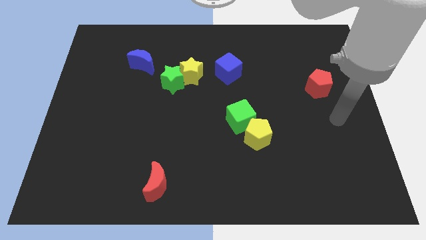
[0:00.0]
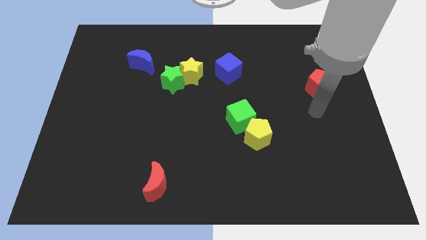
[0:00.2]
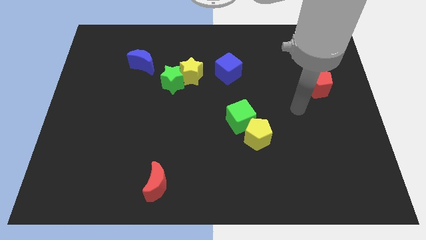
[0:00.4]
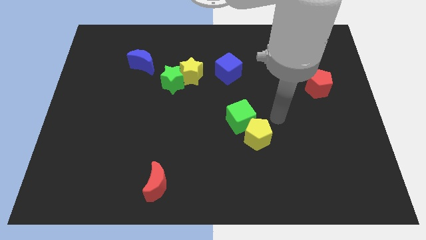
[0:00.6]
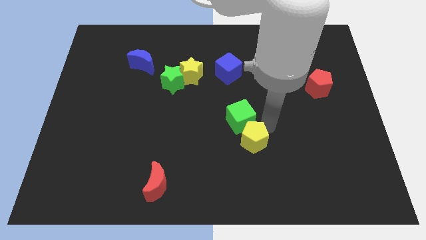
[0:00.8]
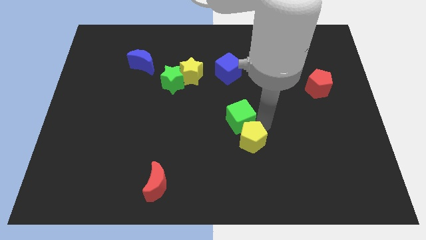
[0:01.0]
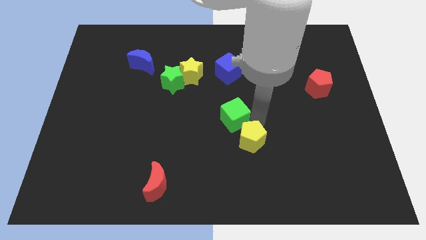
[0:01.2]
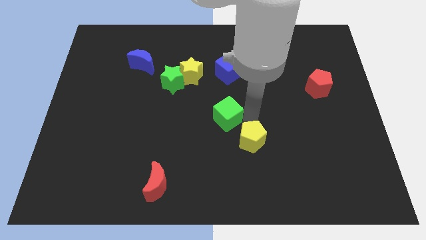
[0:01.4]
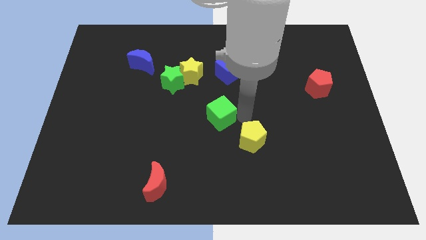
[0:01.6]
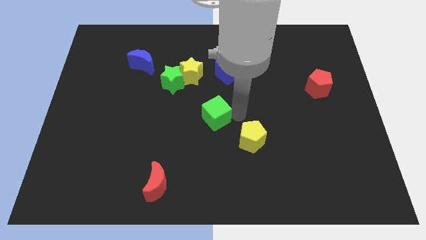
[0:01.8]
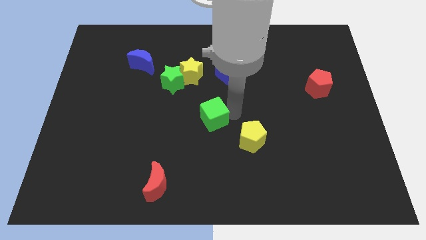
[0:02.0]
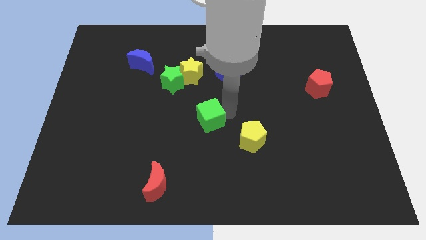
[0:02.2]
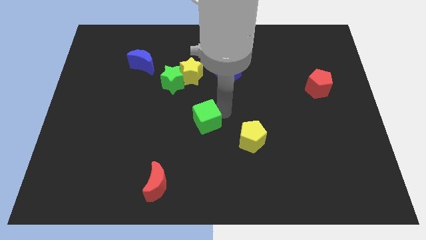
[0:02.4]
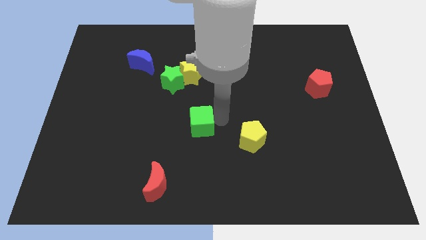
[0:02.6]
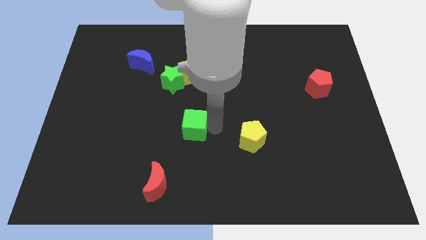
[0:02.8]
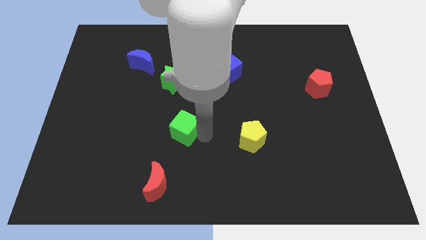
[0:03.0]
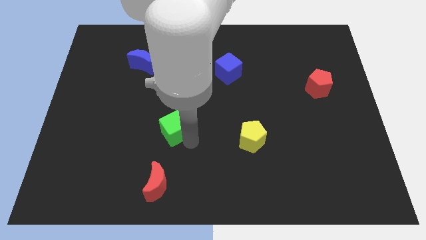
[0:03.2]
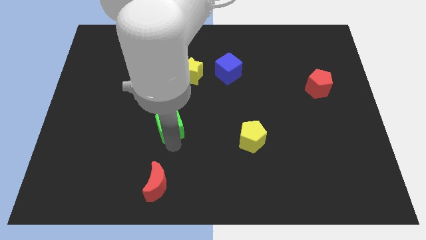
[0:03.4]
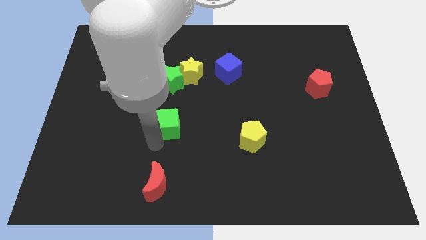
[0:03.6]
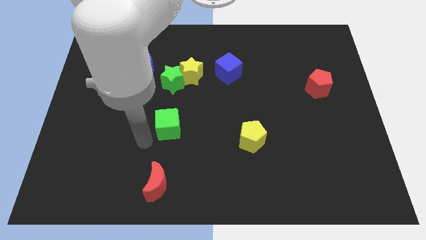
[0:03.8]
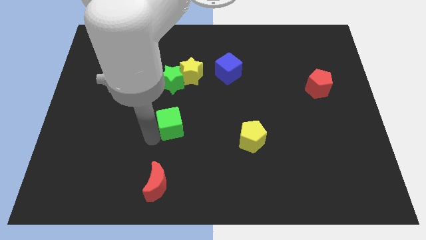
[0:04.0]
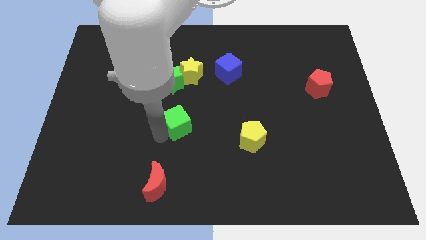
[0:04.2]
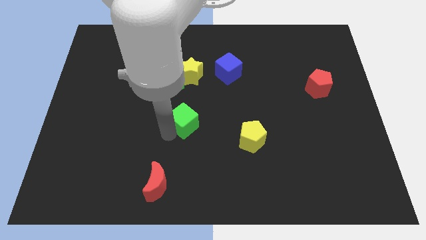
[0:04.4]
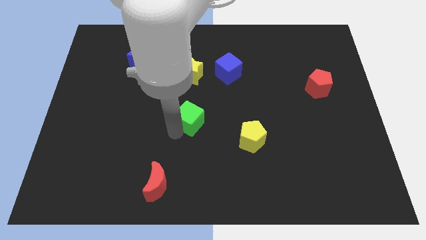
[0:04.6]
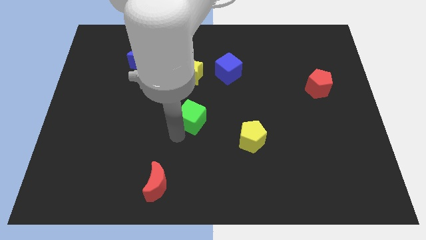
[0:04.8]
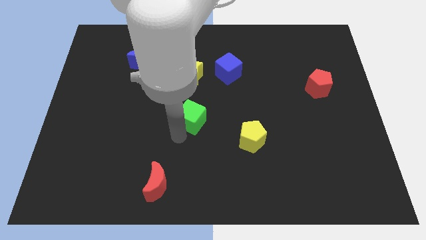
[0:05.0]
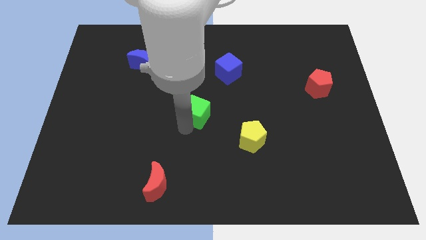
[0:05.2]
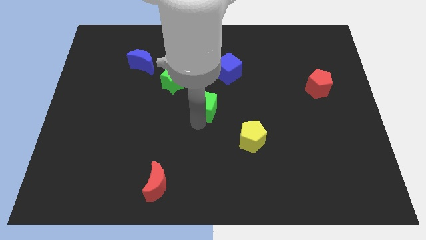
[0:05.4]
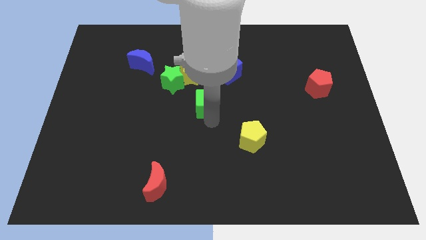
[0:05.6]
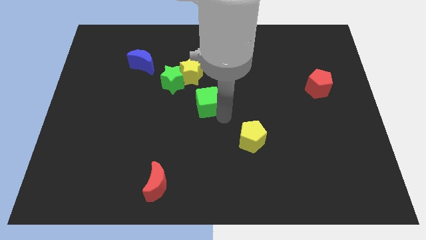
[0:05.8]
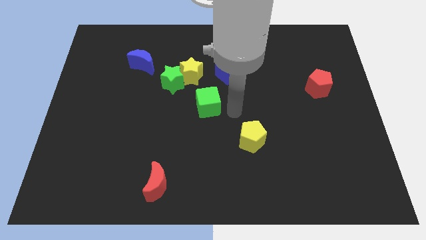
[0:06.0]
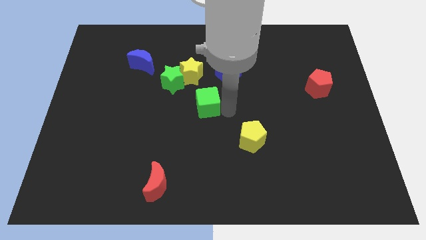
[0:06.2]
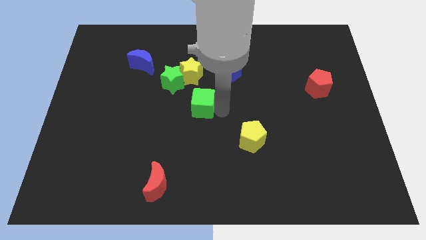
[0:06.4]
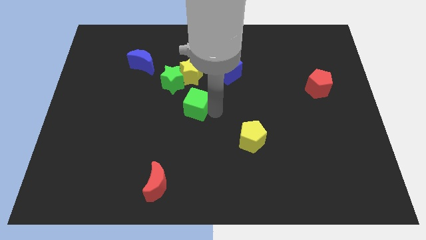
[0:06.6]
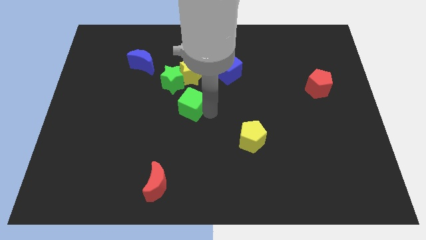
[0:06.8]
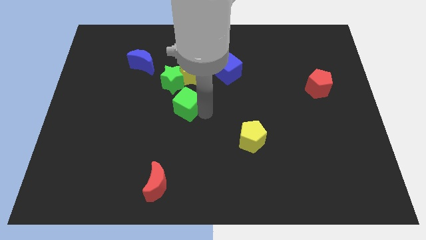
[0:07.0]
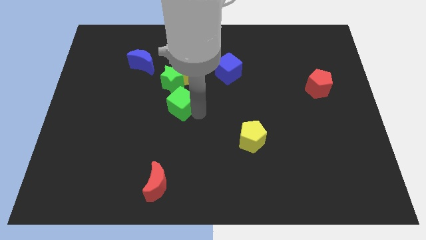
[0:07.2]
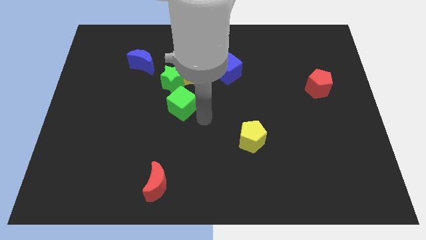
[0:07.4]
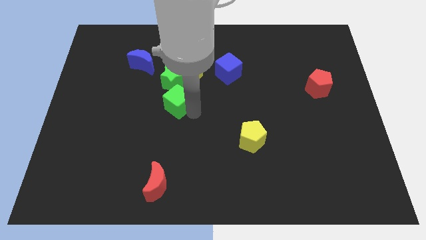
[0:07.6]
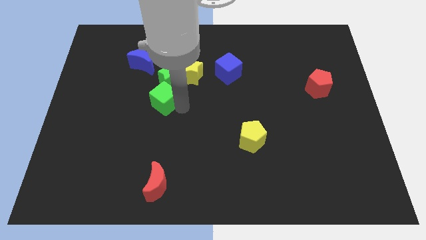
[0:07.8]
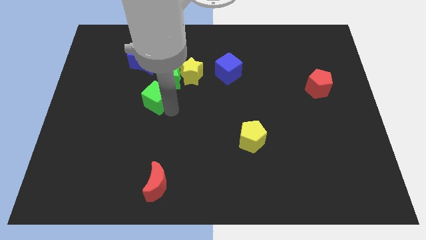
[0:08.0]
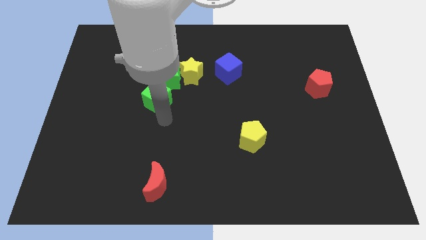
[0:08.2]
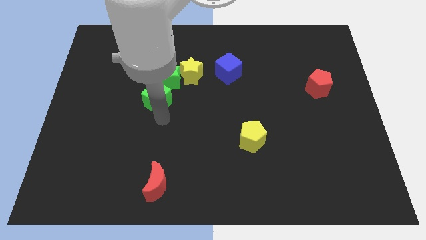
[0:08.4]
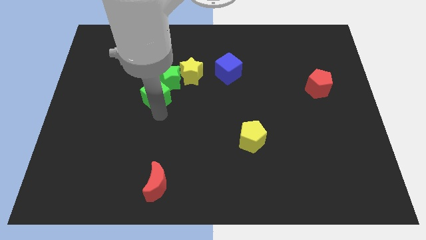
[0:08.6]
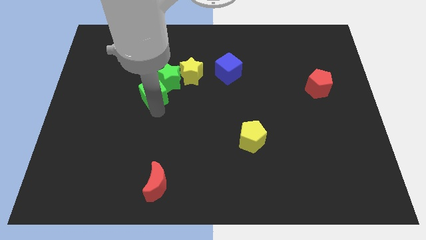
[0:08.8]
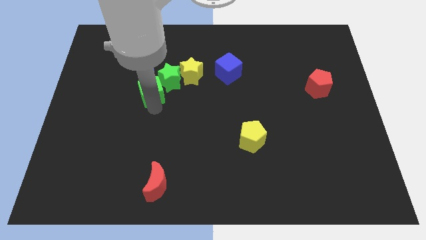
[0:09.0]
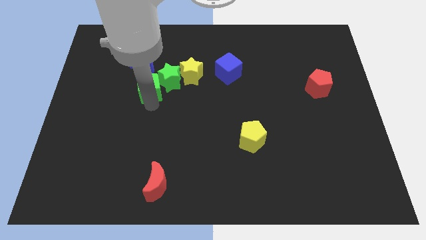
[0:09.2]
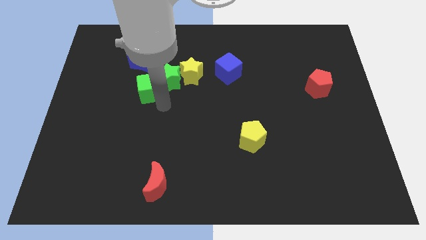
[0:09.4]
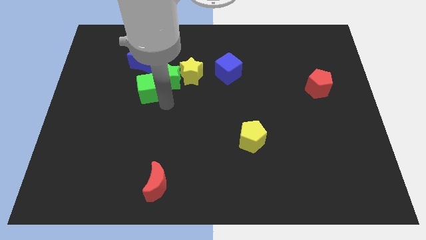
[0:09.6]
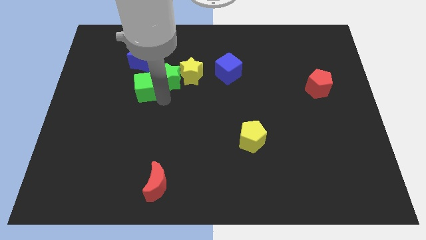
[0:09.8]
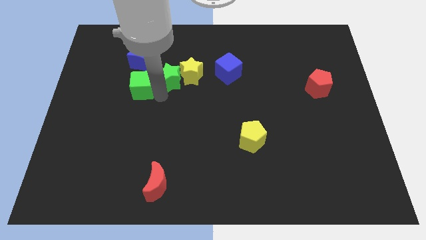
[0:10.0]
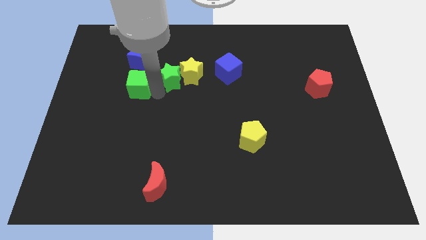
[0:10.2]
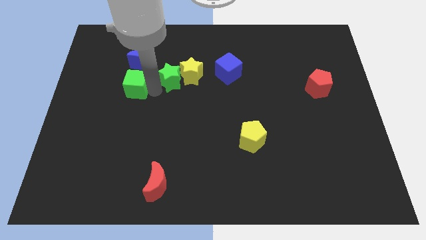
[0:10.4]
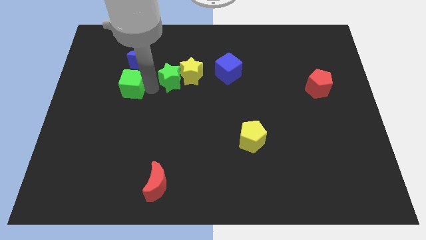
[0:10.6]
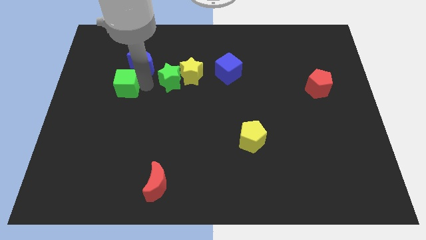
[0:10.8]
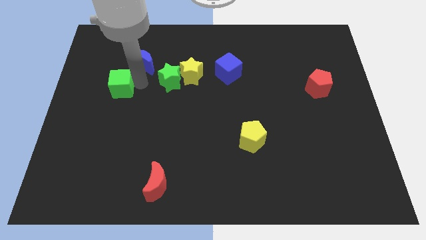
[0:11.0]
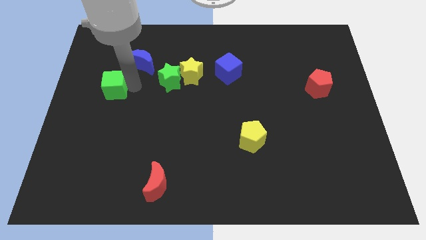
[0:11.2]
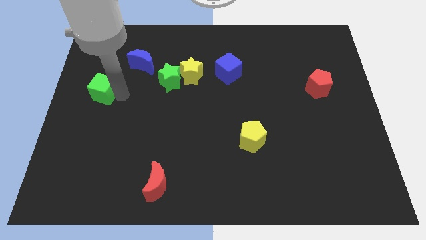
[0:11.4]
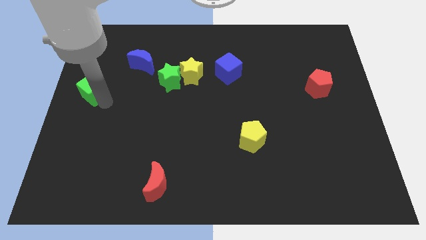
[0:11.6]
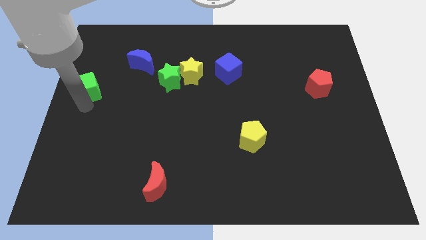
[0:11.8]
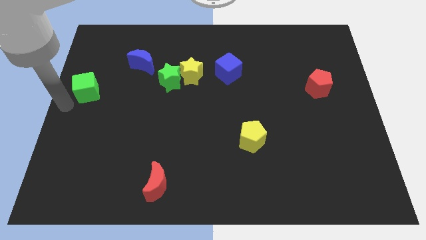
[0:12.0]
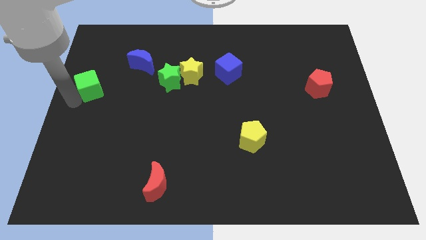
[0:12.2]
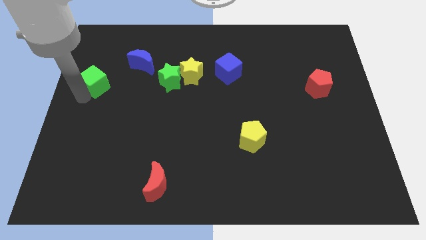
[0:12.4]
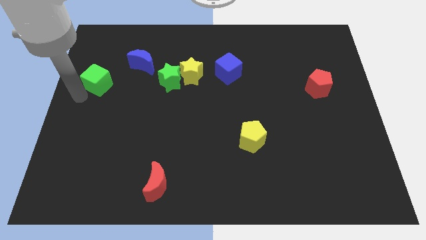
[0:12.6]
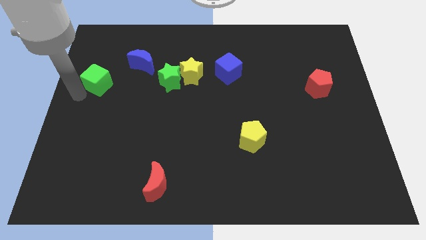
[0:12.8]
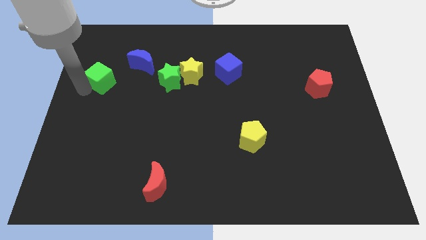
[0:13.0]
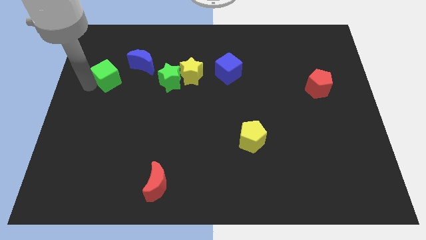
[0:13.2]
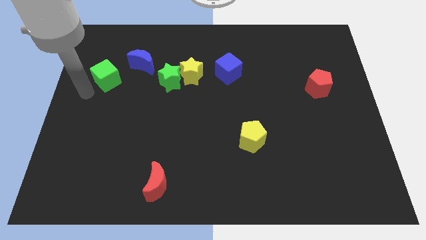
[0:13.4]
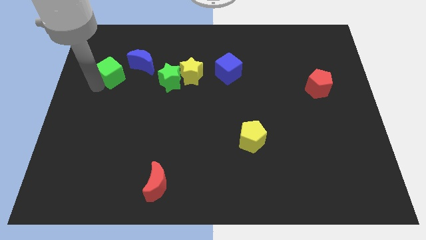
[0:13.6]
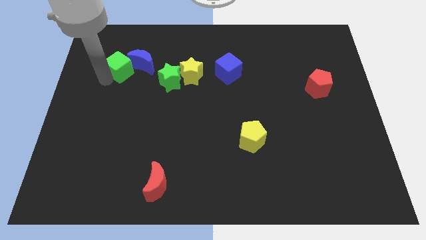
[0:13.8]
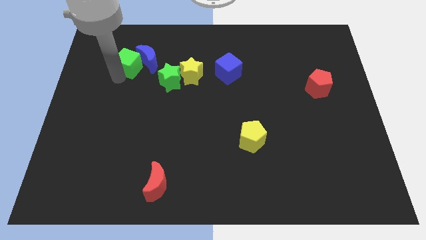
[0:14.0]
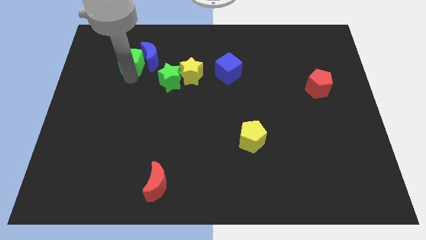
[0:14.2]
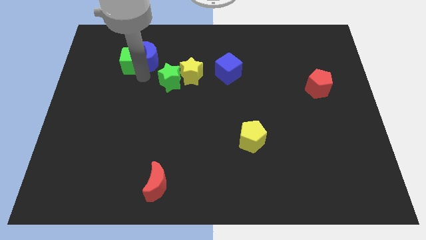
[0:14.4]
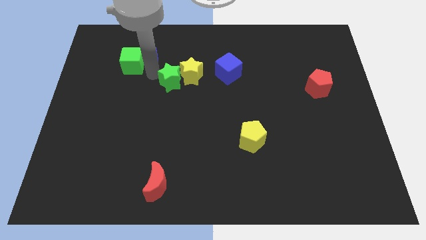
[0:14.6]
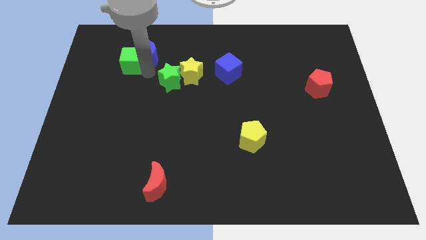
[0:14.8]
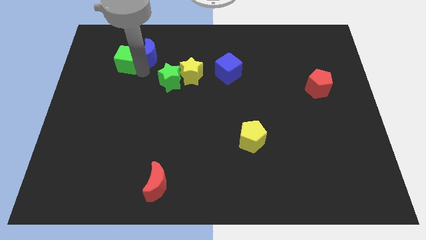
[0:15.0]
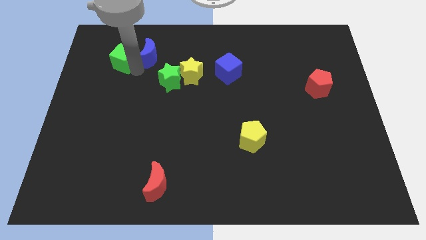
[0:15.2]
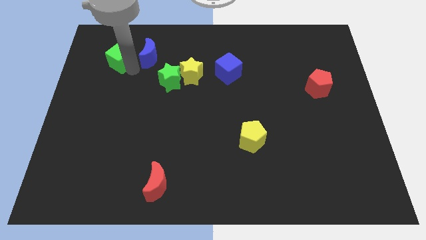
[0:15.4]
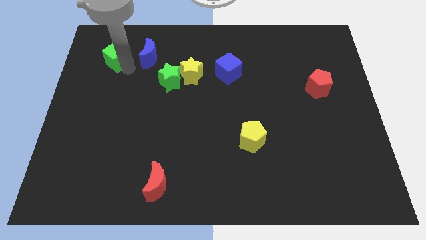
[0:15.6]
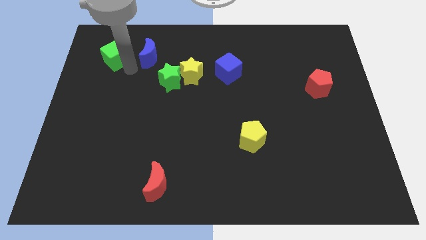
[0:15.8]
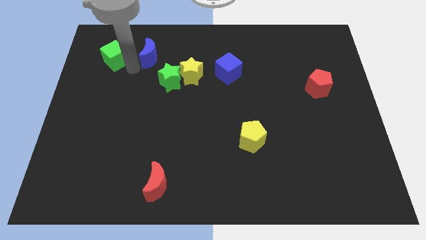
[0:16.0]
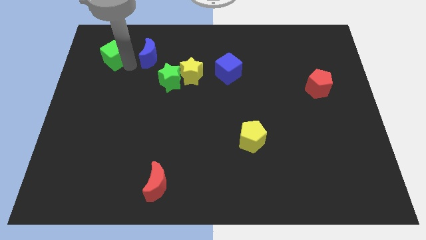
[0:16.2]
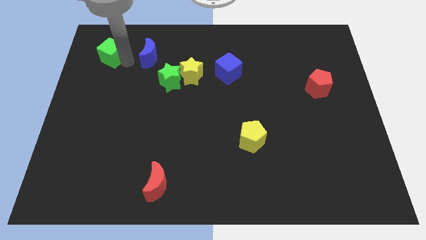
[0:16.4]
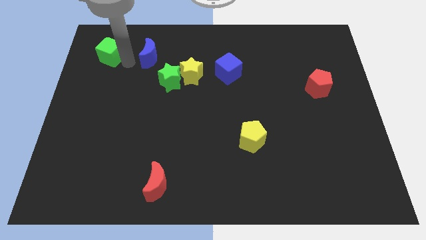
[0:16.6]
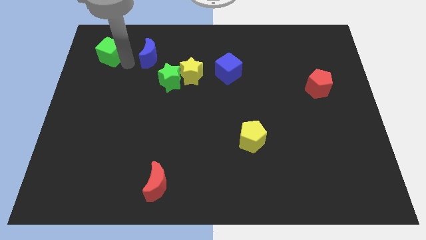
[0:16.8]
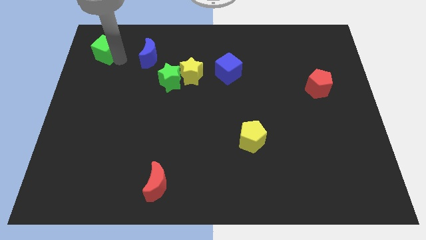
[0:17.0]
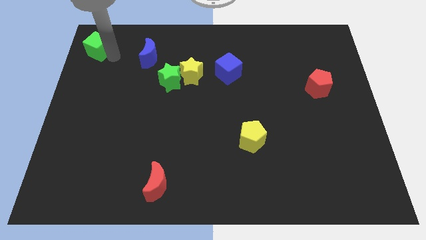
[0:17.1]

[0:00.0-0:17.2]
slide the green cube to the top left corner
